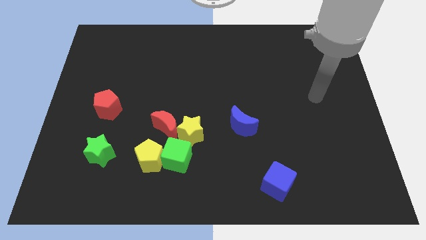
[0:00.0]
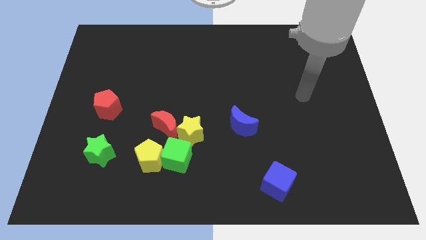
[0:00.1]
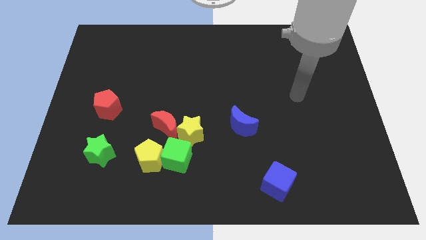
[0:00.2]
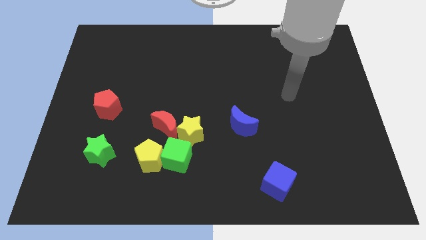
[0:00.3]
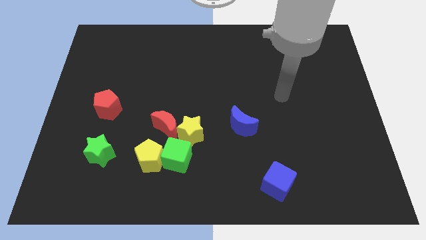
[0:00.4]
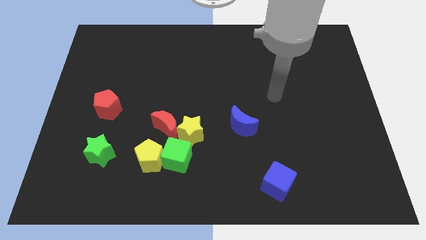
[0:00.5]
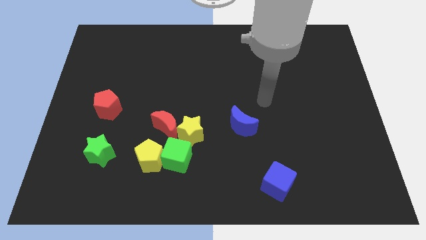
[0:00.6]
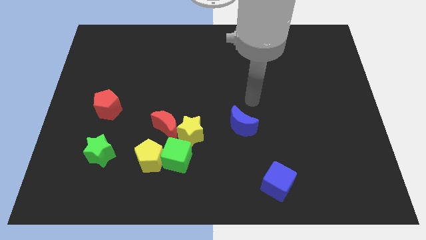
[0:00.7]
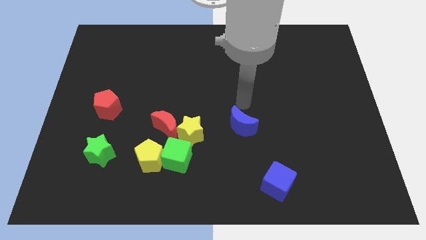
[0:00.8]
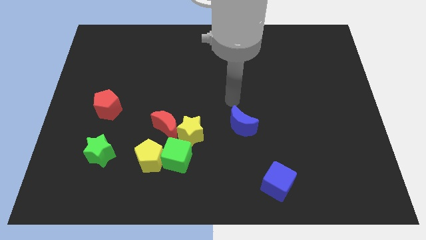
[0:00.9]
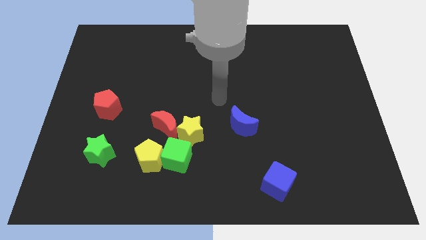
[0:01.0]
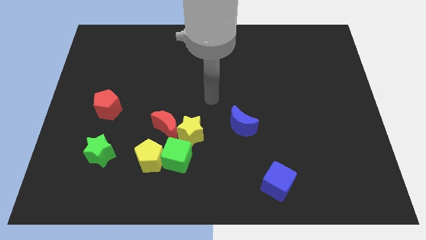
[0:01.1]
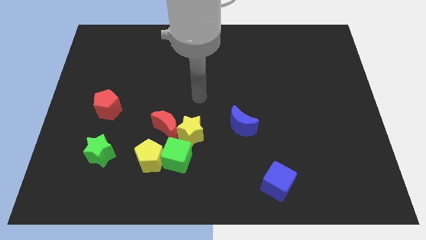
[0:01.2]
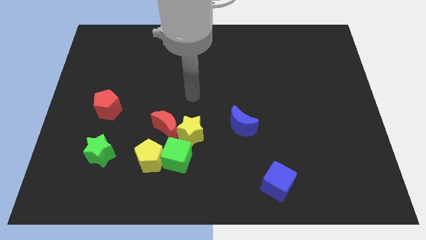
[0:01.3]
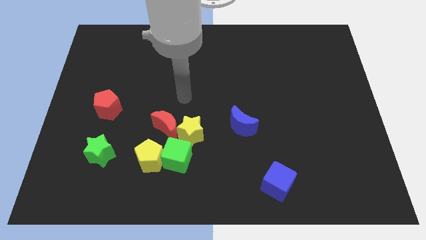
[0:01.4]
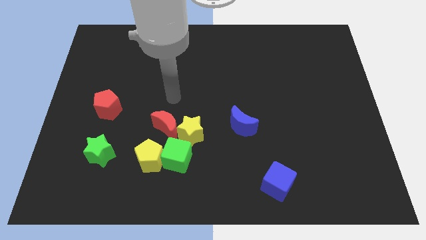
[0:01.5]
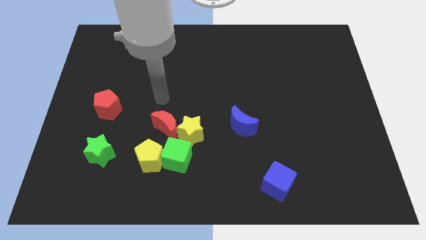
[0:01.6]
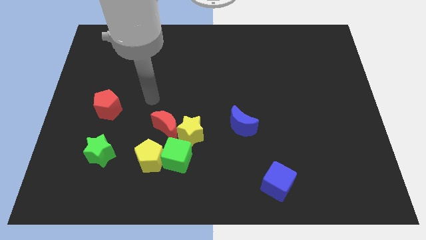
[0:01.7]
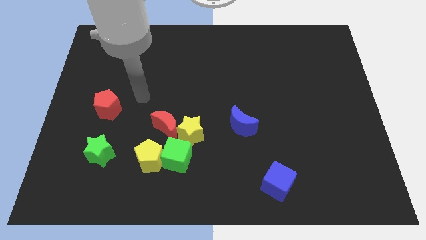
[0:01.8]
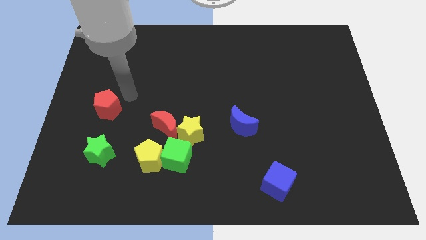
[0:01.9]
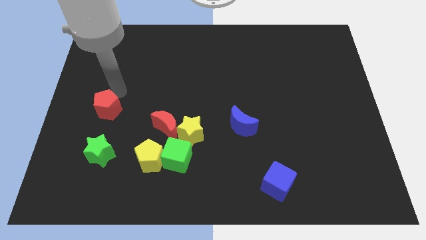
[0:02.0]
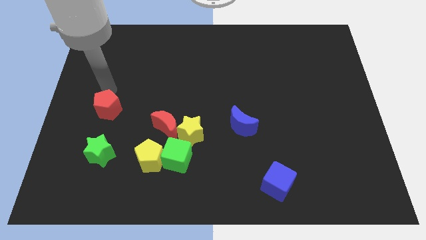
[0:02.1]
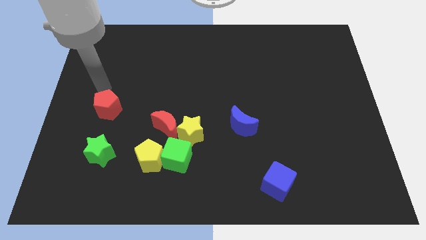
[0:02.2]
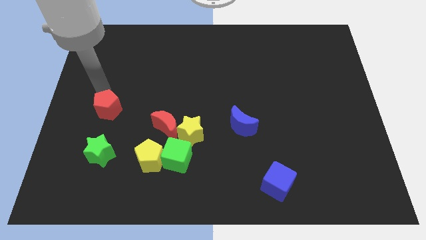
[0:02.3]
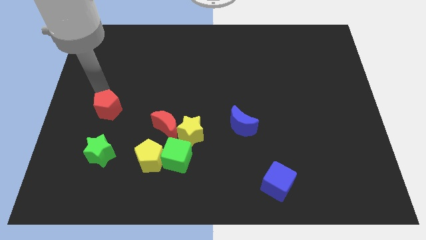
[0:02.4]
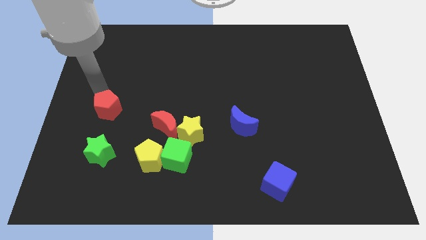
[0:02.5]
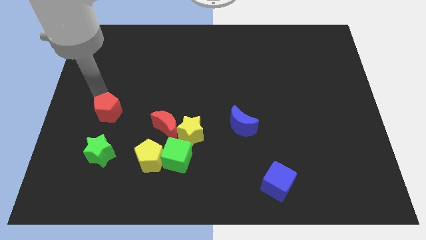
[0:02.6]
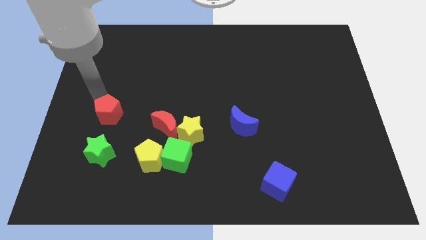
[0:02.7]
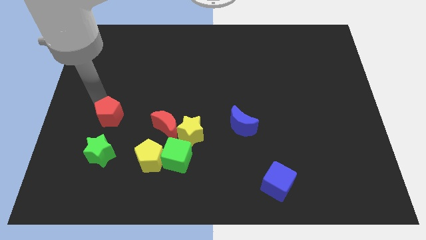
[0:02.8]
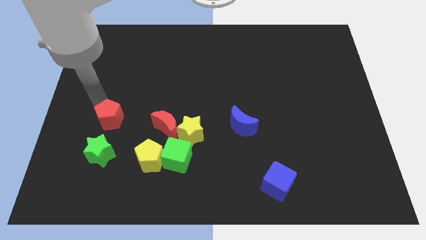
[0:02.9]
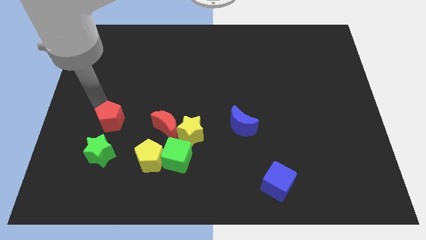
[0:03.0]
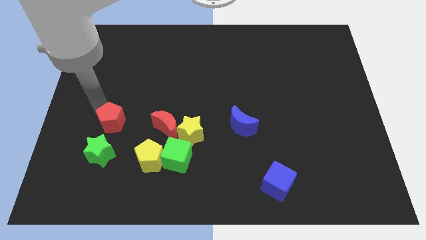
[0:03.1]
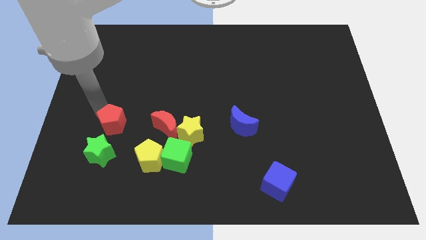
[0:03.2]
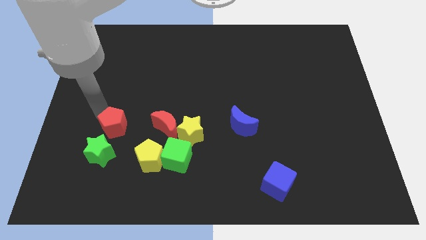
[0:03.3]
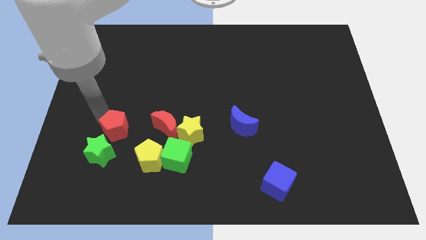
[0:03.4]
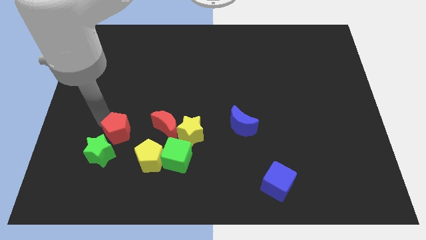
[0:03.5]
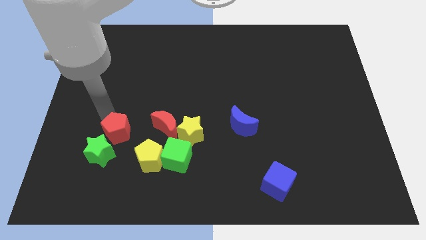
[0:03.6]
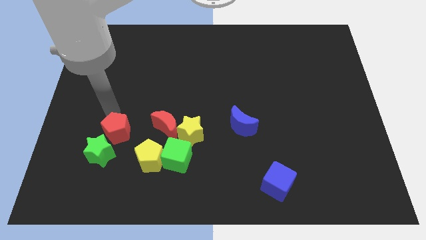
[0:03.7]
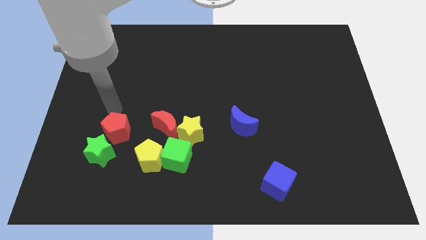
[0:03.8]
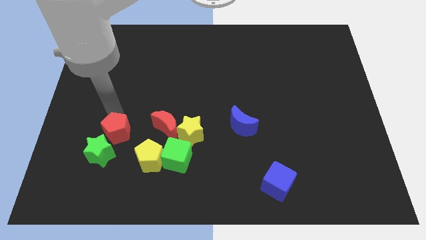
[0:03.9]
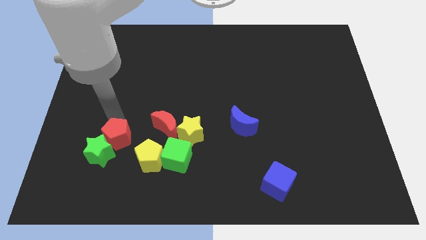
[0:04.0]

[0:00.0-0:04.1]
push the red pentagon somewhat downwards

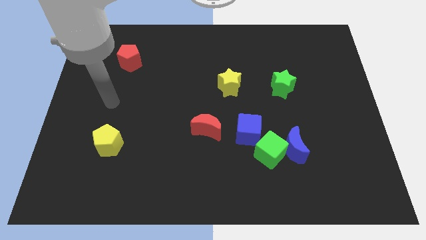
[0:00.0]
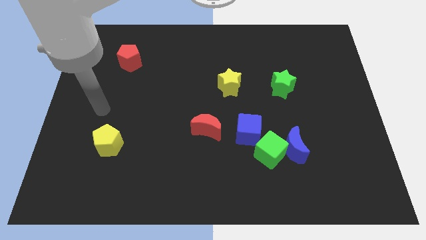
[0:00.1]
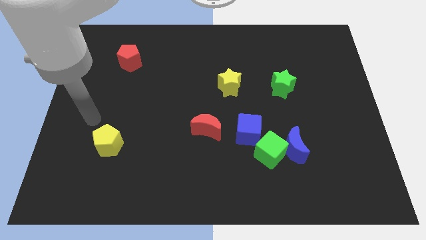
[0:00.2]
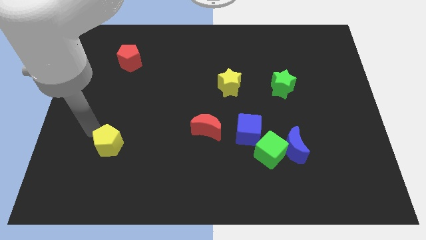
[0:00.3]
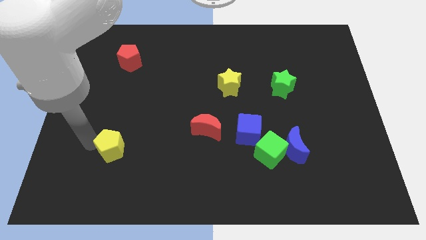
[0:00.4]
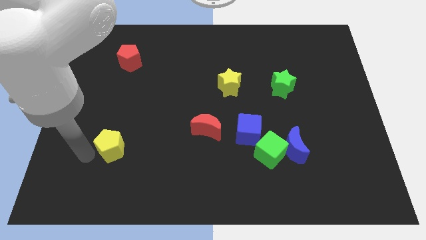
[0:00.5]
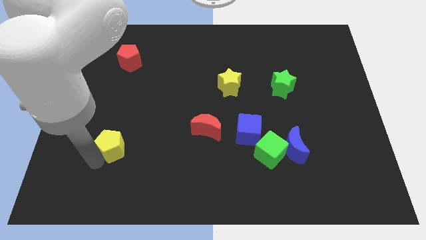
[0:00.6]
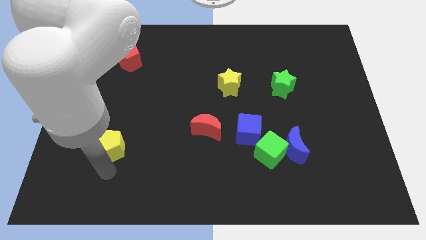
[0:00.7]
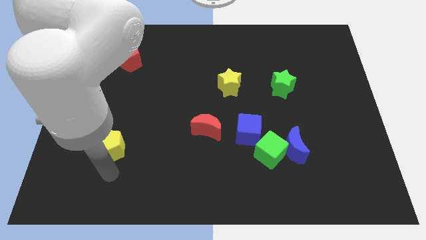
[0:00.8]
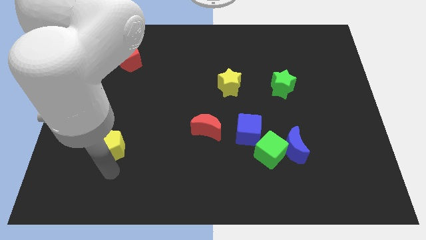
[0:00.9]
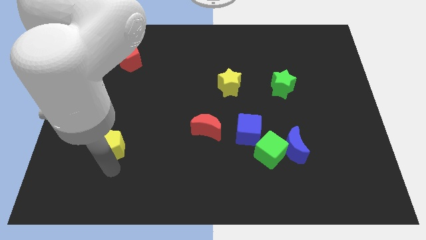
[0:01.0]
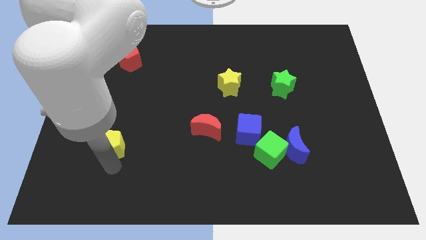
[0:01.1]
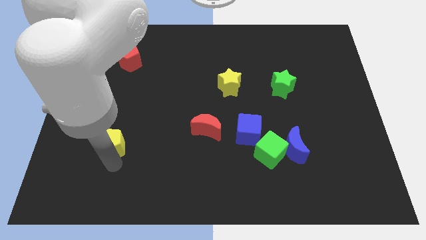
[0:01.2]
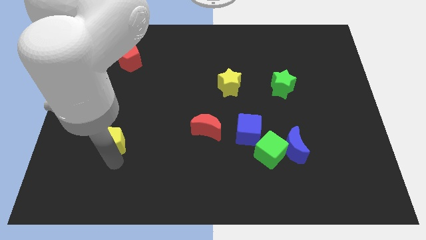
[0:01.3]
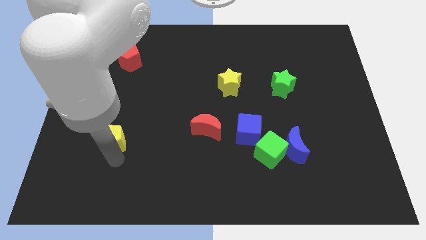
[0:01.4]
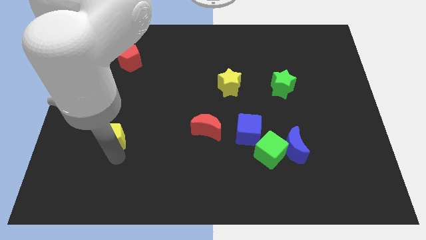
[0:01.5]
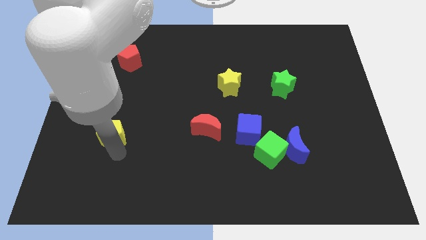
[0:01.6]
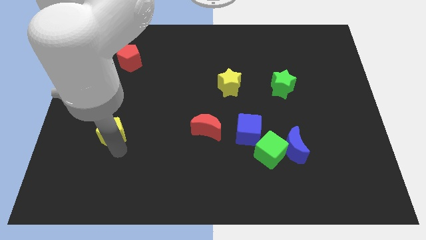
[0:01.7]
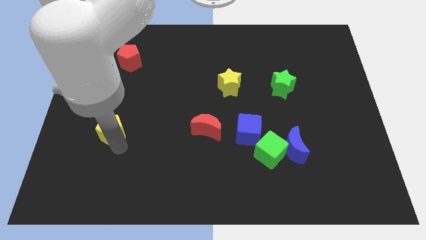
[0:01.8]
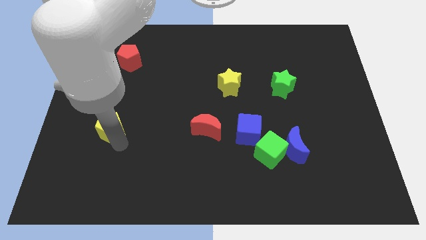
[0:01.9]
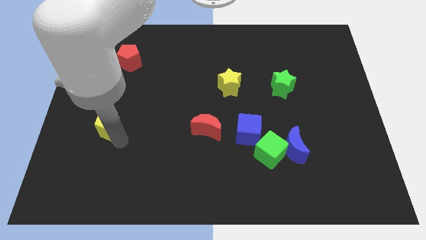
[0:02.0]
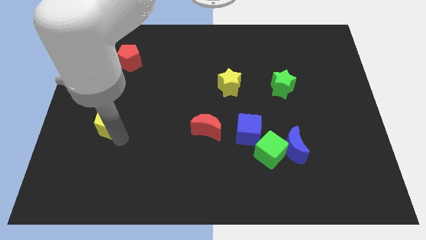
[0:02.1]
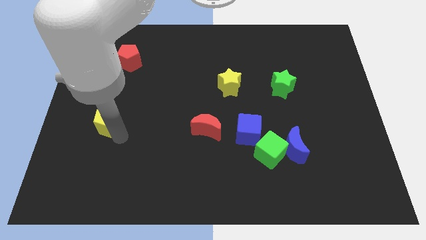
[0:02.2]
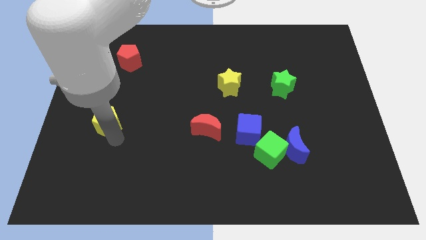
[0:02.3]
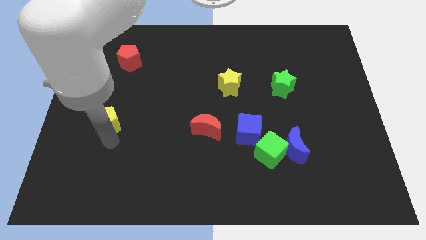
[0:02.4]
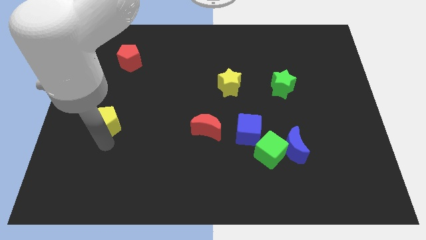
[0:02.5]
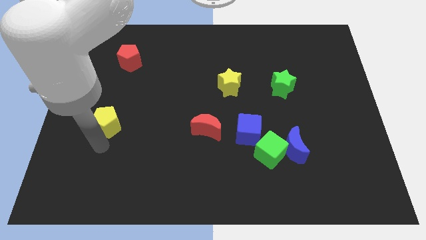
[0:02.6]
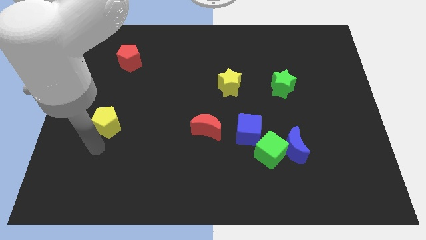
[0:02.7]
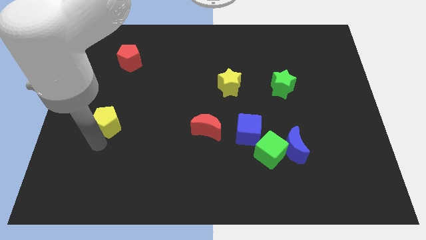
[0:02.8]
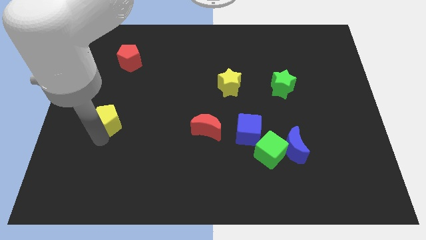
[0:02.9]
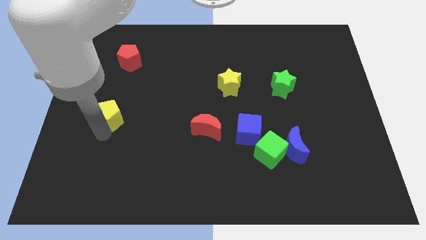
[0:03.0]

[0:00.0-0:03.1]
slightly slide the yellow pentagon upwards

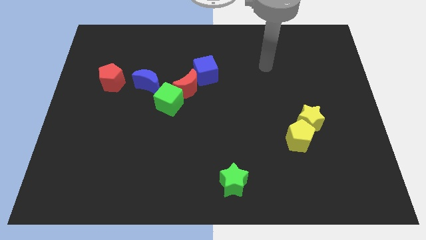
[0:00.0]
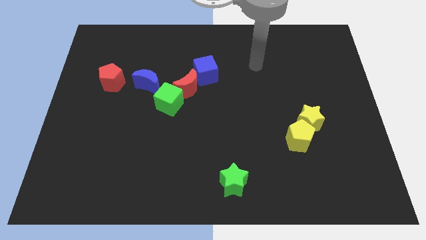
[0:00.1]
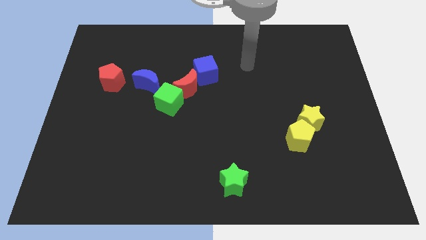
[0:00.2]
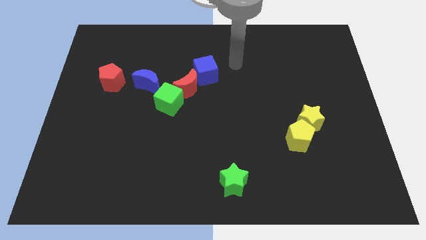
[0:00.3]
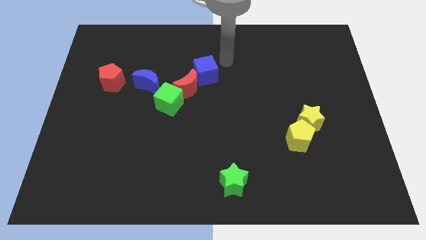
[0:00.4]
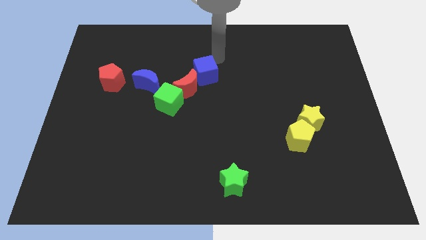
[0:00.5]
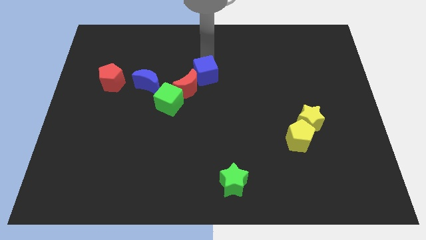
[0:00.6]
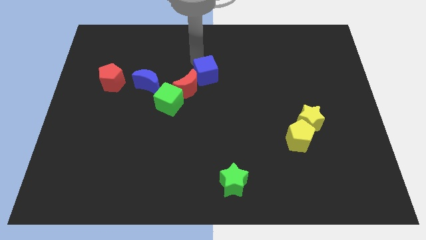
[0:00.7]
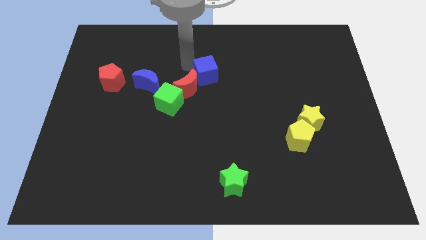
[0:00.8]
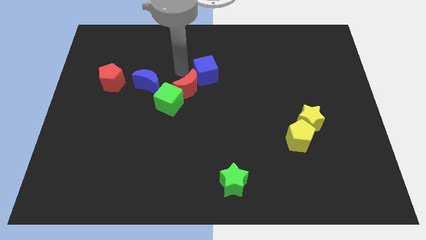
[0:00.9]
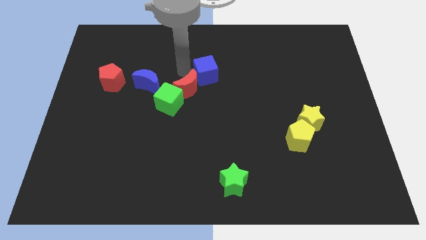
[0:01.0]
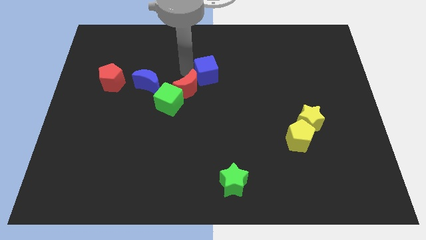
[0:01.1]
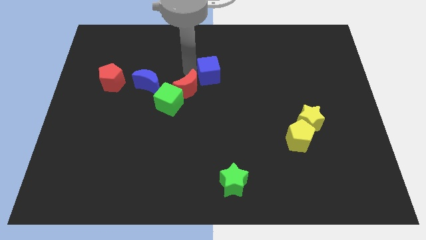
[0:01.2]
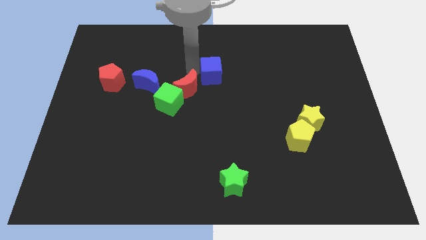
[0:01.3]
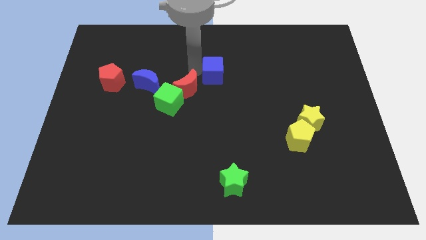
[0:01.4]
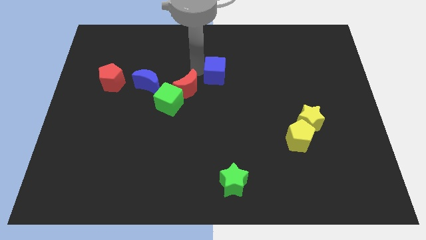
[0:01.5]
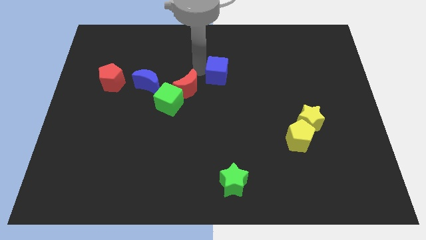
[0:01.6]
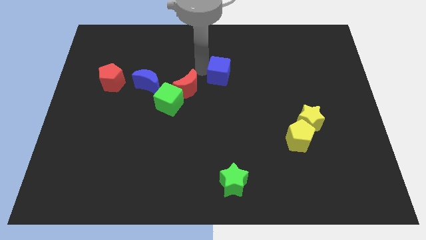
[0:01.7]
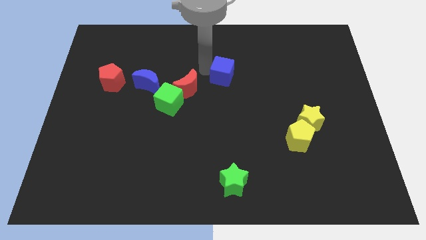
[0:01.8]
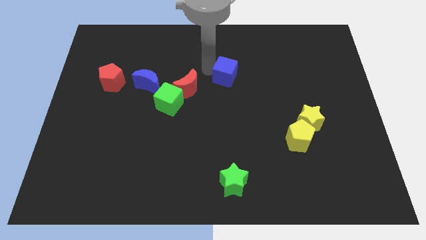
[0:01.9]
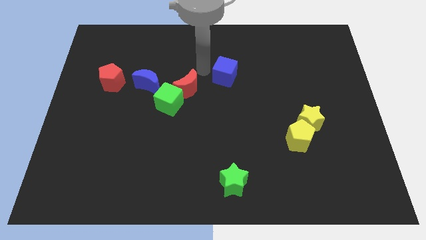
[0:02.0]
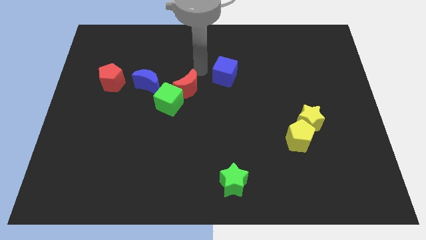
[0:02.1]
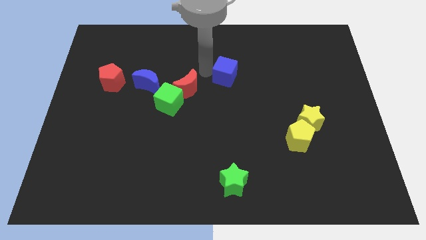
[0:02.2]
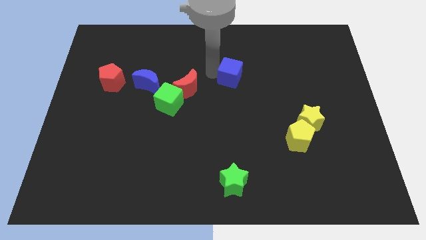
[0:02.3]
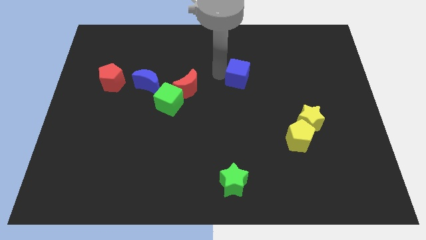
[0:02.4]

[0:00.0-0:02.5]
slide the blue cube slightly right
